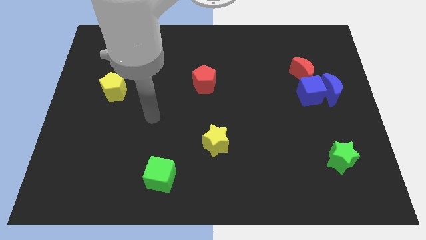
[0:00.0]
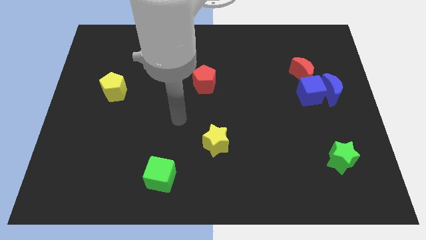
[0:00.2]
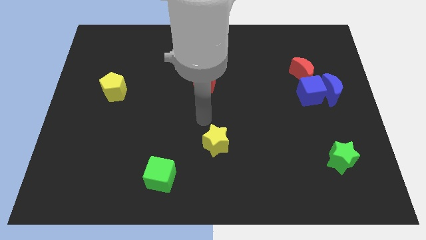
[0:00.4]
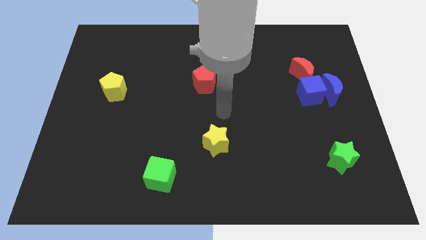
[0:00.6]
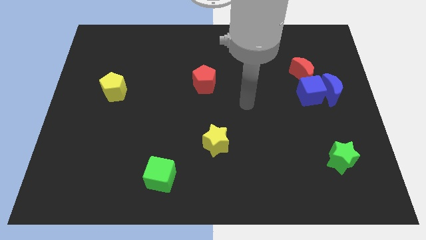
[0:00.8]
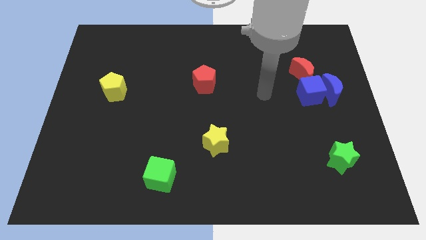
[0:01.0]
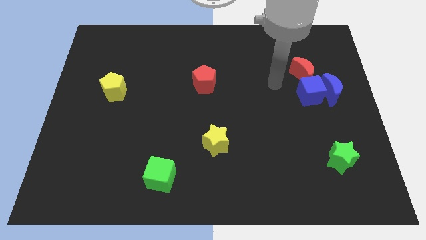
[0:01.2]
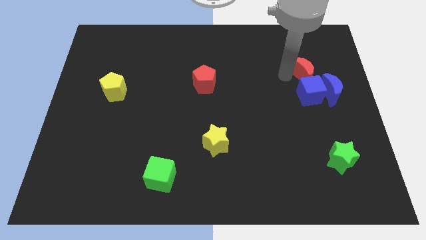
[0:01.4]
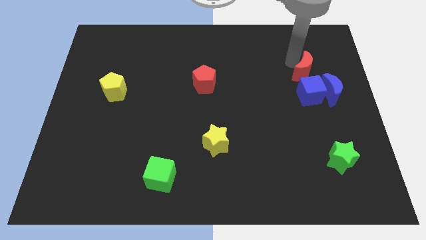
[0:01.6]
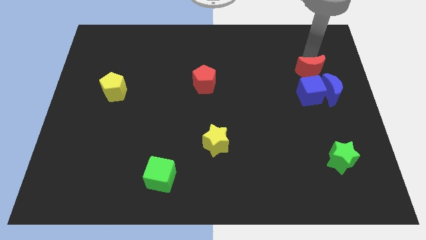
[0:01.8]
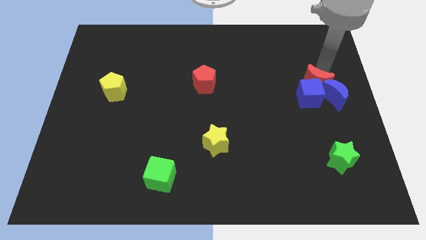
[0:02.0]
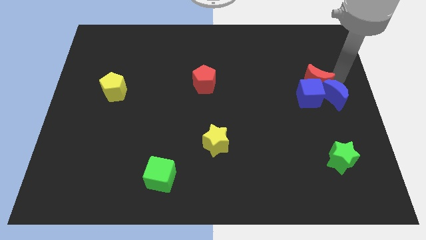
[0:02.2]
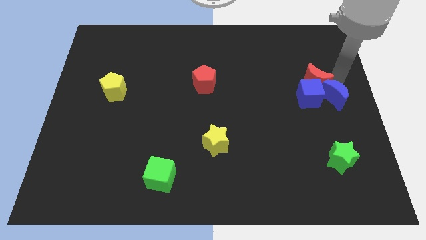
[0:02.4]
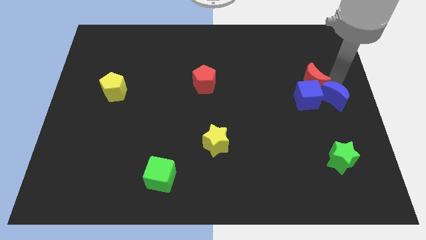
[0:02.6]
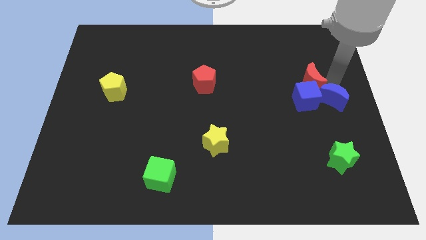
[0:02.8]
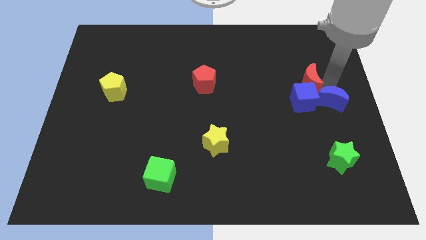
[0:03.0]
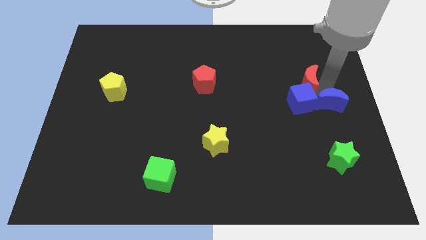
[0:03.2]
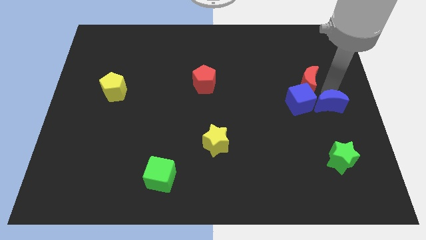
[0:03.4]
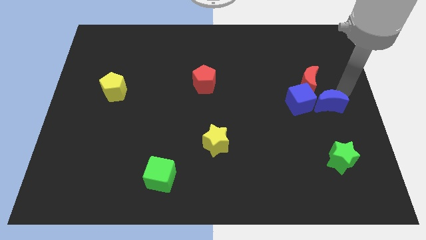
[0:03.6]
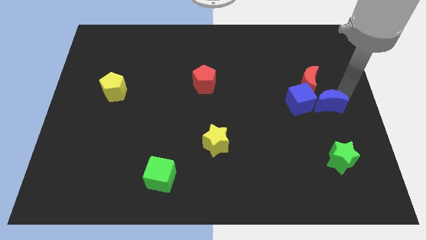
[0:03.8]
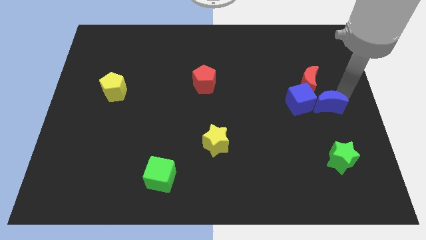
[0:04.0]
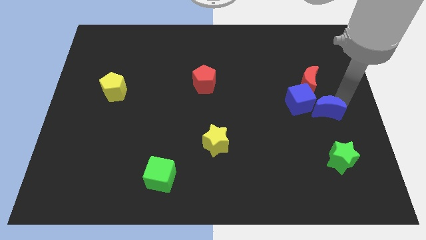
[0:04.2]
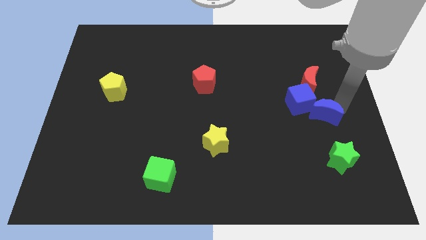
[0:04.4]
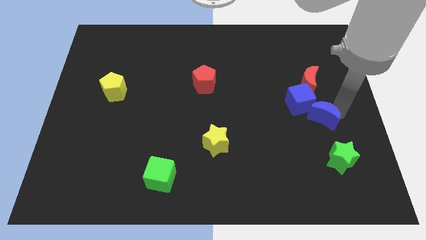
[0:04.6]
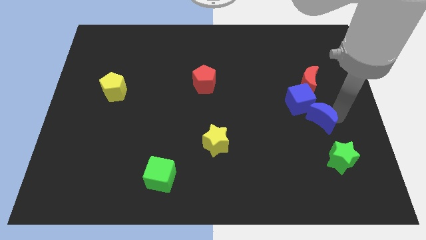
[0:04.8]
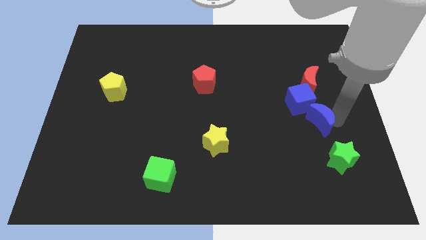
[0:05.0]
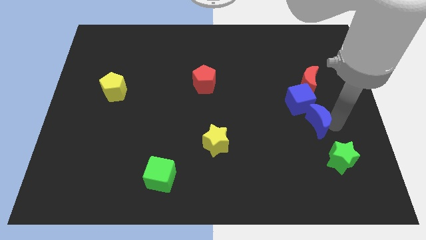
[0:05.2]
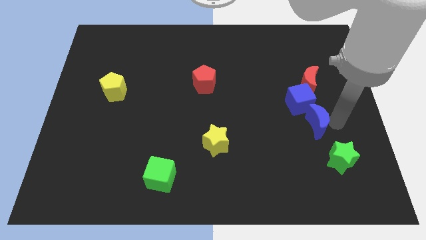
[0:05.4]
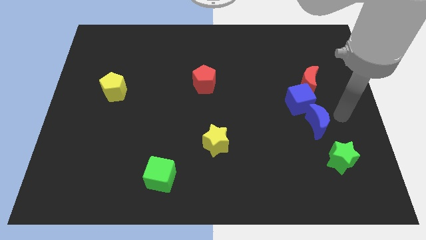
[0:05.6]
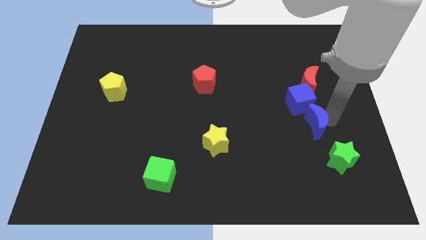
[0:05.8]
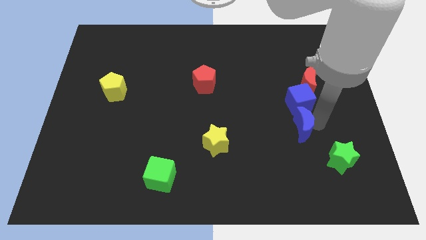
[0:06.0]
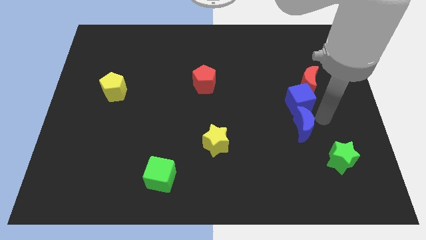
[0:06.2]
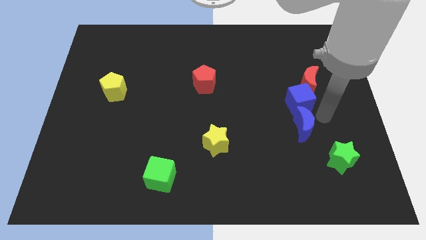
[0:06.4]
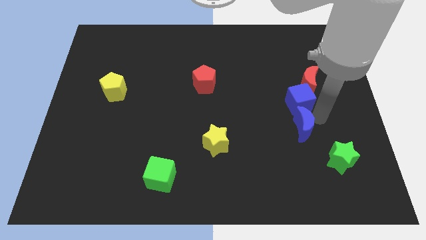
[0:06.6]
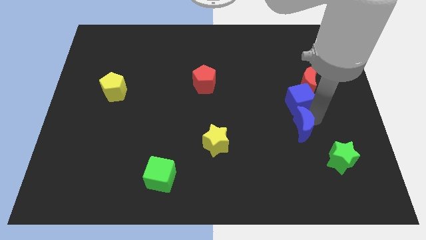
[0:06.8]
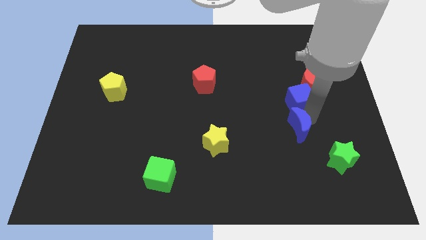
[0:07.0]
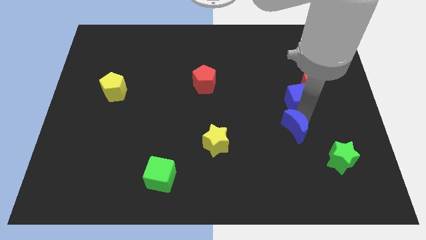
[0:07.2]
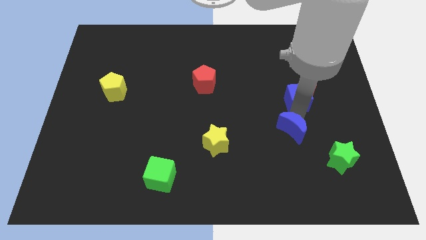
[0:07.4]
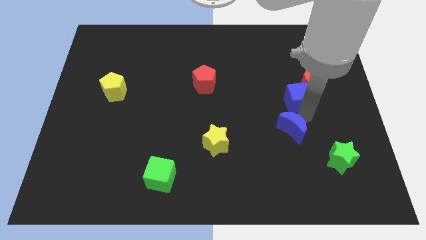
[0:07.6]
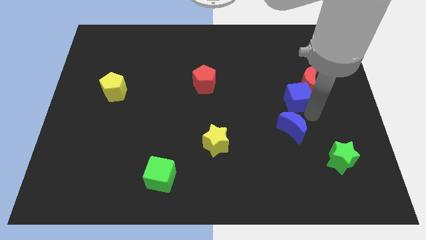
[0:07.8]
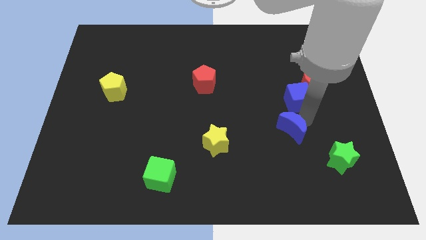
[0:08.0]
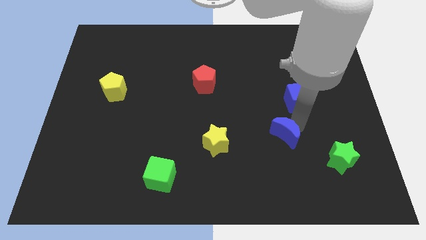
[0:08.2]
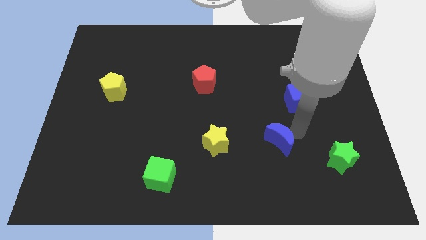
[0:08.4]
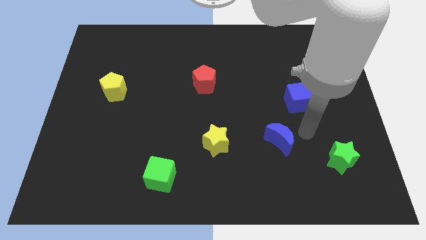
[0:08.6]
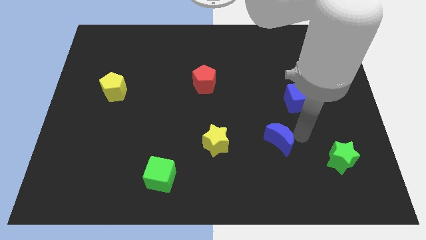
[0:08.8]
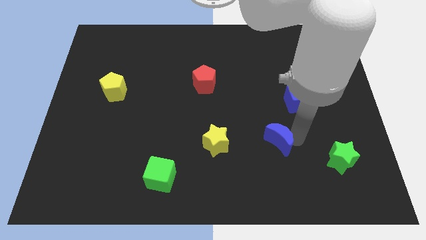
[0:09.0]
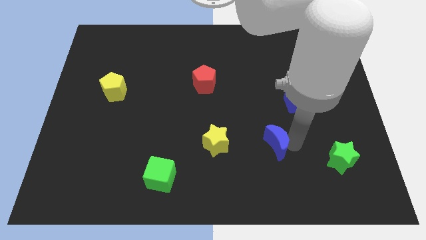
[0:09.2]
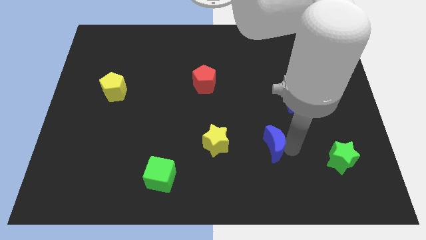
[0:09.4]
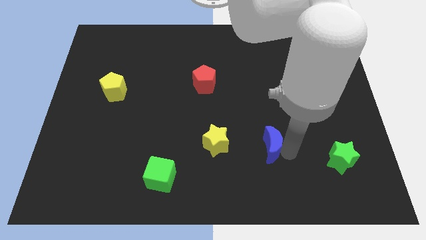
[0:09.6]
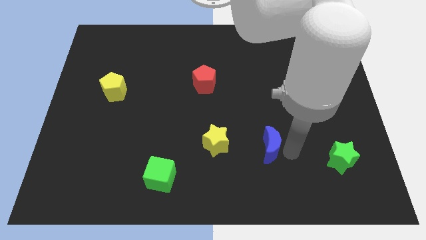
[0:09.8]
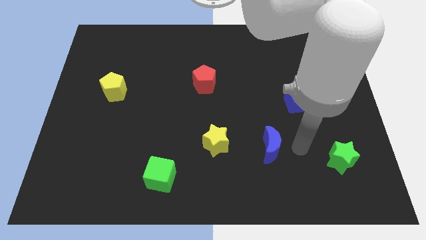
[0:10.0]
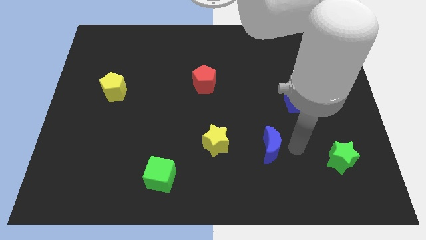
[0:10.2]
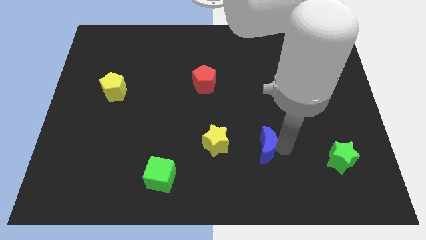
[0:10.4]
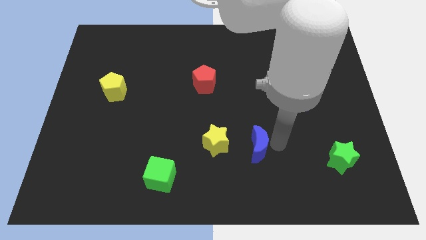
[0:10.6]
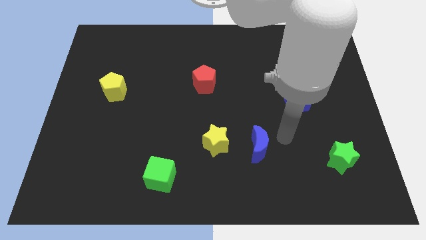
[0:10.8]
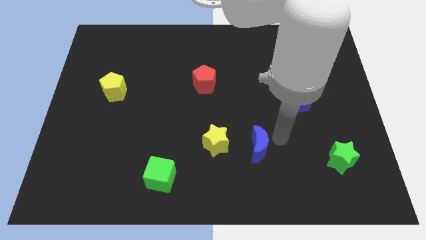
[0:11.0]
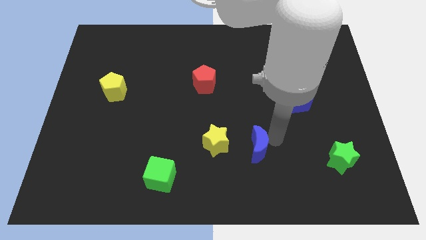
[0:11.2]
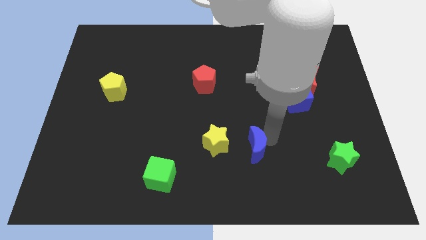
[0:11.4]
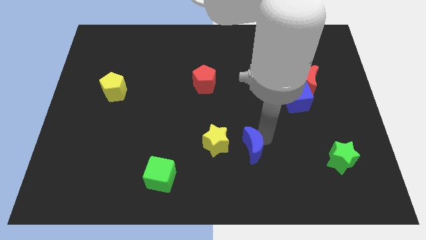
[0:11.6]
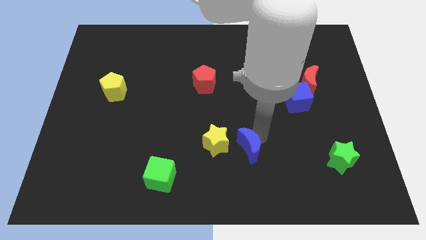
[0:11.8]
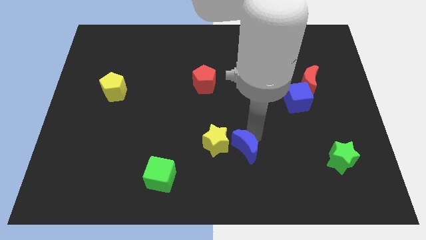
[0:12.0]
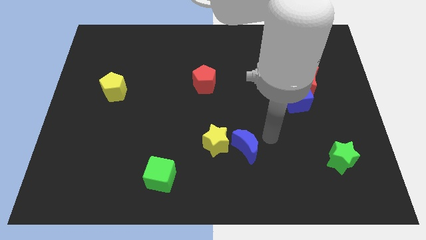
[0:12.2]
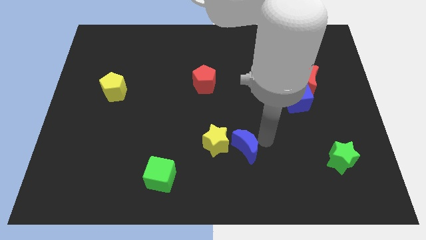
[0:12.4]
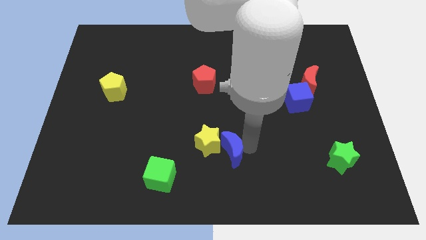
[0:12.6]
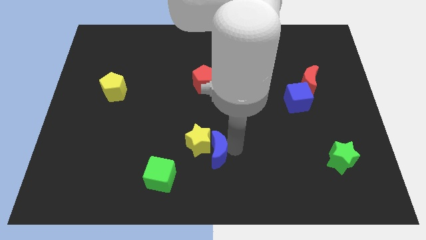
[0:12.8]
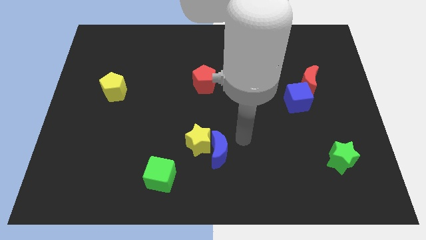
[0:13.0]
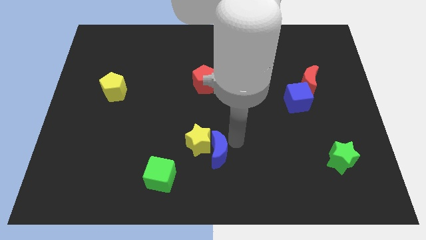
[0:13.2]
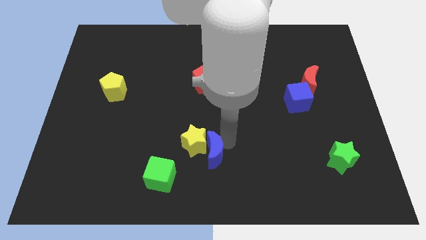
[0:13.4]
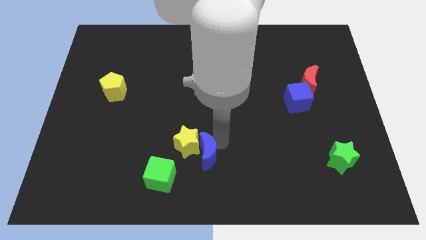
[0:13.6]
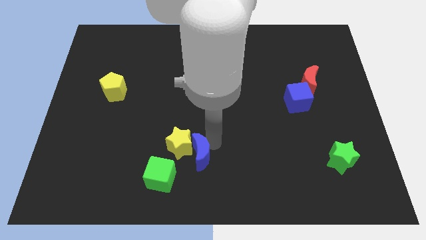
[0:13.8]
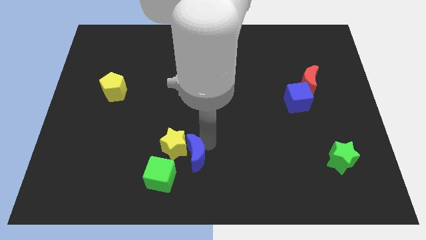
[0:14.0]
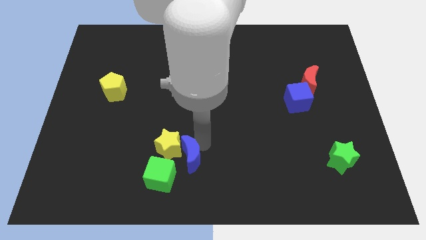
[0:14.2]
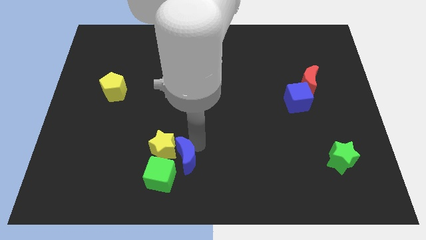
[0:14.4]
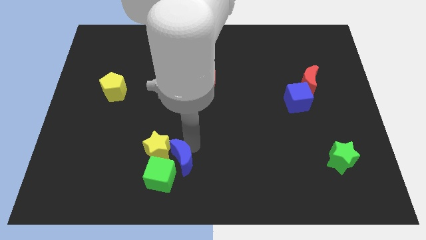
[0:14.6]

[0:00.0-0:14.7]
put the blue moon to the green cube
